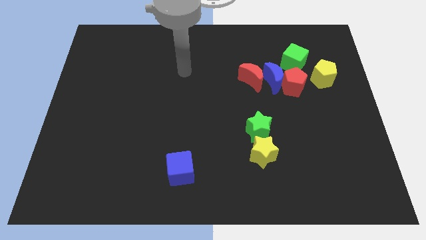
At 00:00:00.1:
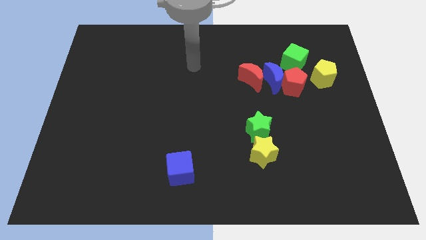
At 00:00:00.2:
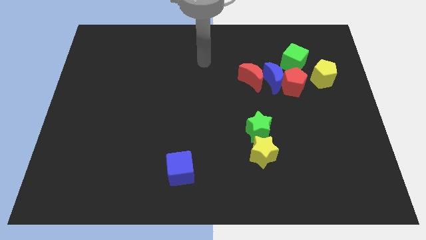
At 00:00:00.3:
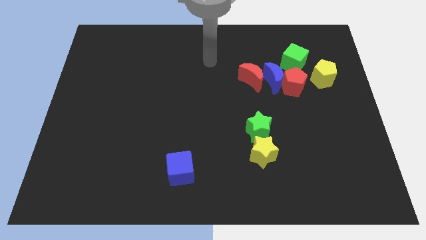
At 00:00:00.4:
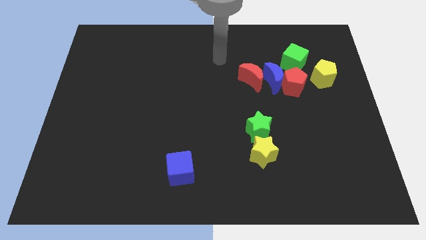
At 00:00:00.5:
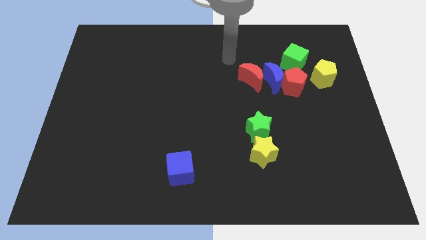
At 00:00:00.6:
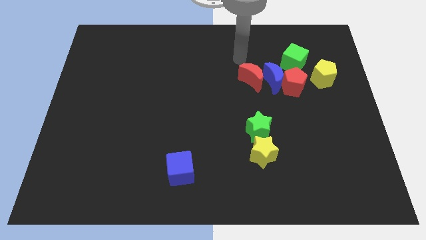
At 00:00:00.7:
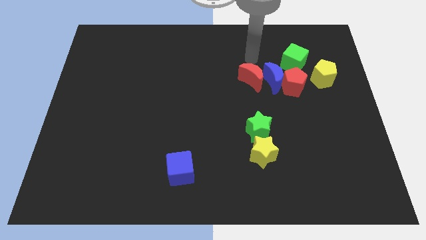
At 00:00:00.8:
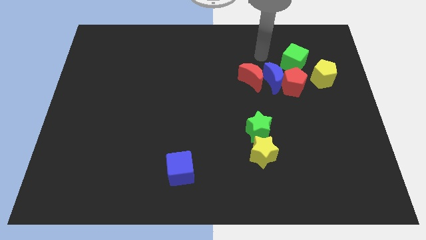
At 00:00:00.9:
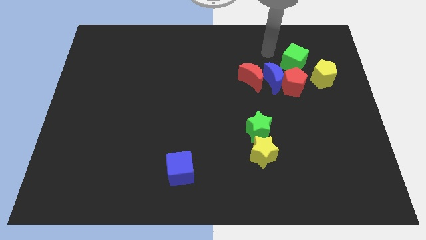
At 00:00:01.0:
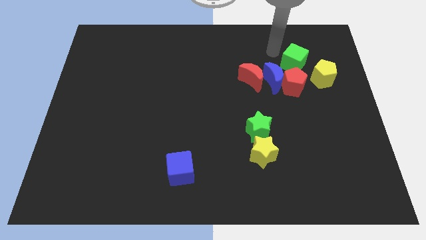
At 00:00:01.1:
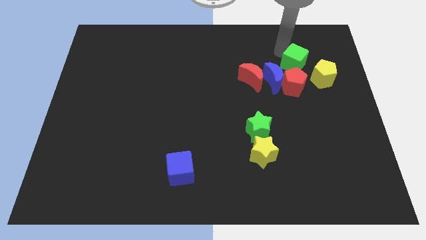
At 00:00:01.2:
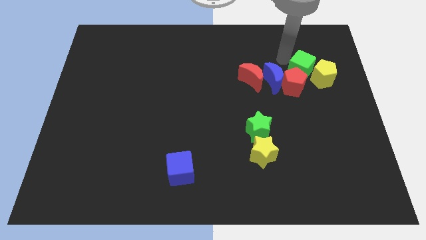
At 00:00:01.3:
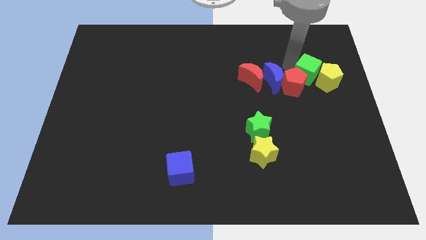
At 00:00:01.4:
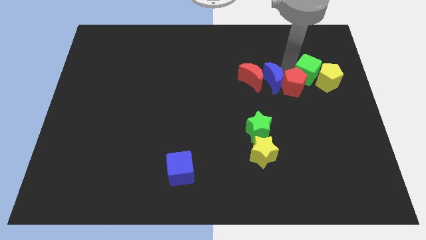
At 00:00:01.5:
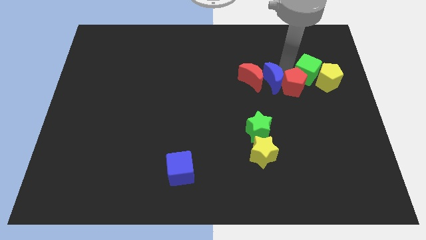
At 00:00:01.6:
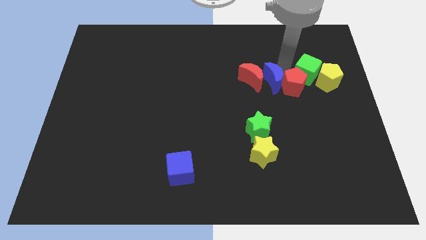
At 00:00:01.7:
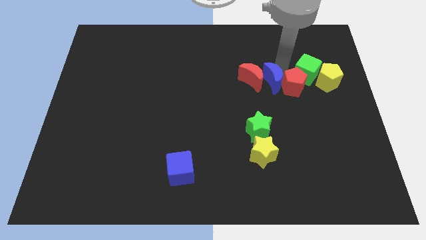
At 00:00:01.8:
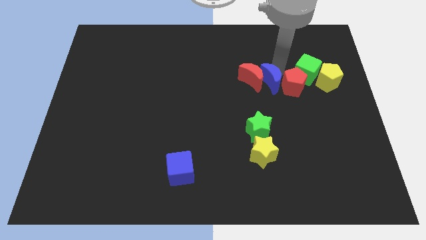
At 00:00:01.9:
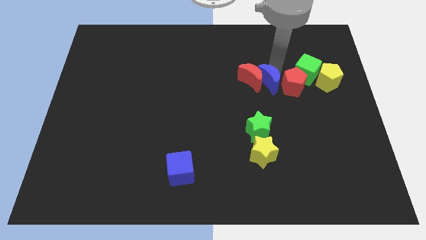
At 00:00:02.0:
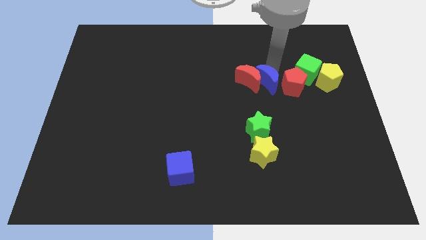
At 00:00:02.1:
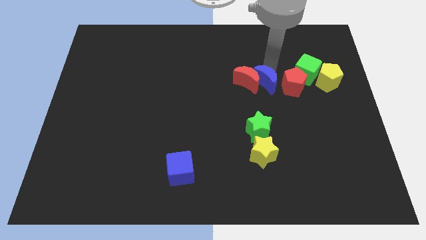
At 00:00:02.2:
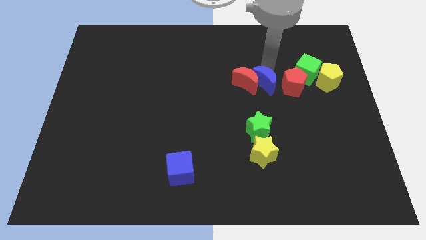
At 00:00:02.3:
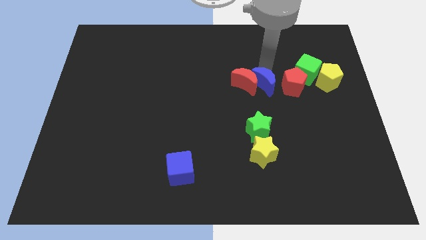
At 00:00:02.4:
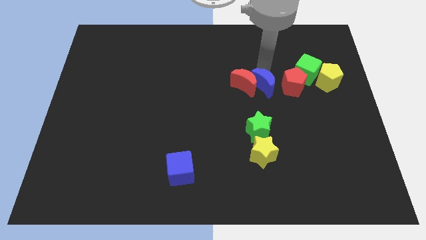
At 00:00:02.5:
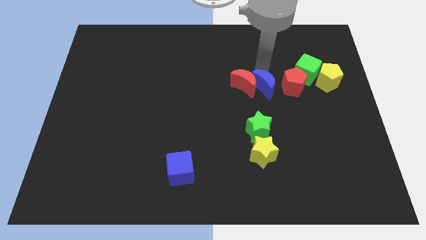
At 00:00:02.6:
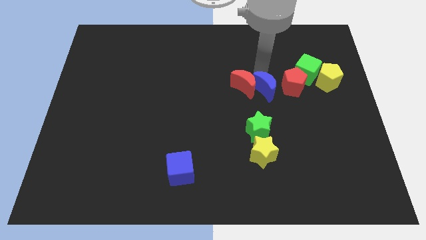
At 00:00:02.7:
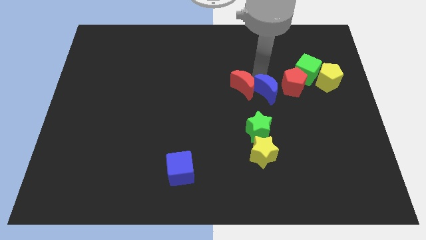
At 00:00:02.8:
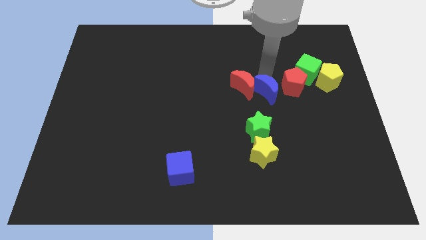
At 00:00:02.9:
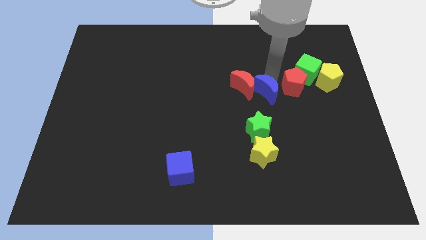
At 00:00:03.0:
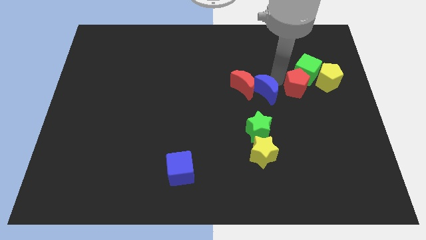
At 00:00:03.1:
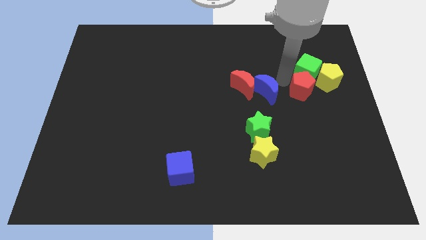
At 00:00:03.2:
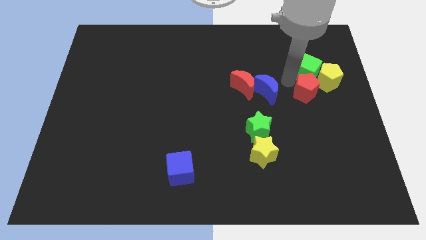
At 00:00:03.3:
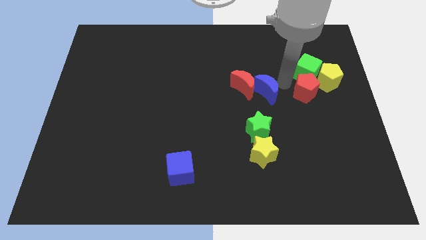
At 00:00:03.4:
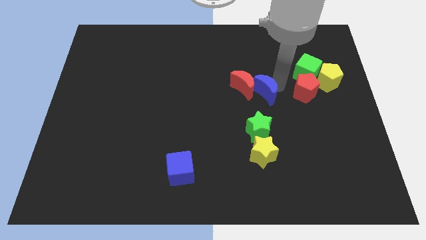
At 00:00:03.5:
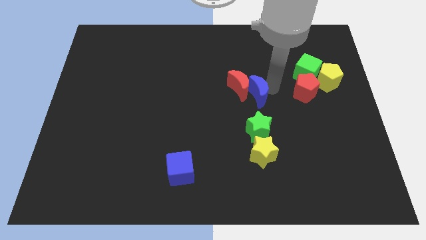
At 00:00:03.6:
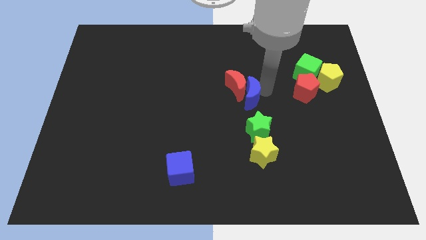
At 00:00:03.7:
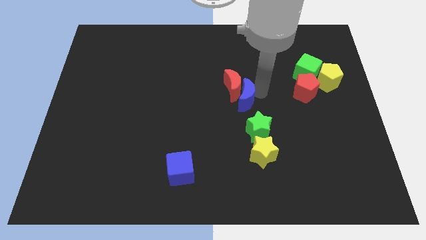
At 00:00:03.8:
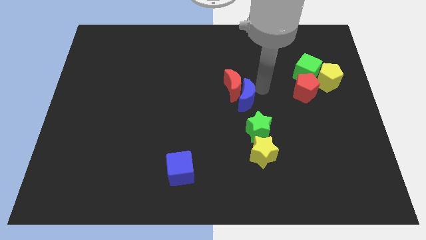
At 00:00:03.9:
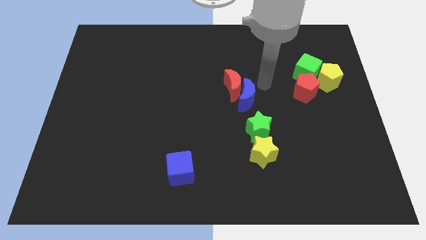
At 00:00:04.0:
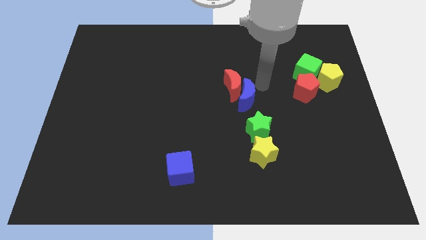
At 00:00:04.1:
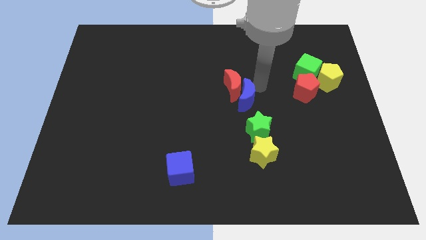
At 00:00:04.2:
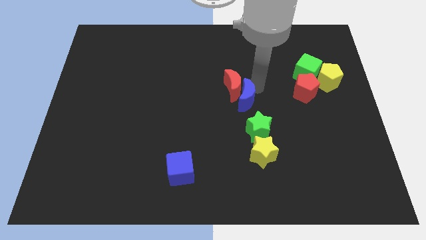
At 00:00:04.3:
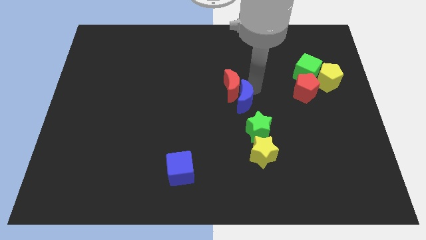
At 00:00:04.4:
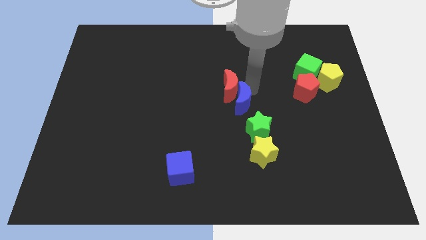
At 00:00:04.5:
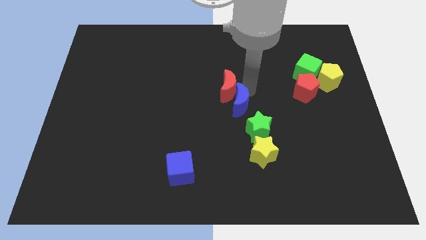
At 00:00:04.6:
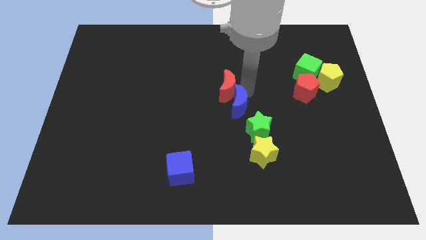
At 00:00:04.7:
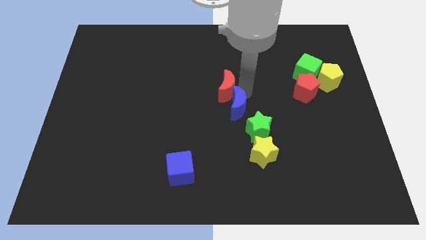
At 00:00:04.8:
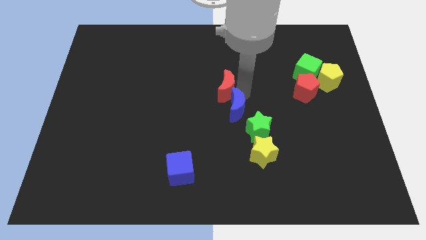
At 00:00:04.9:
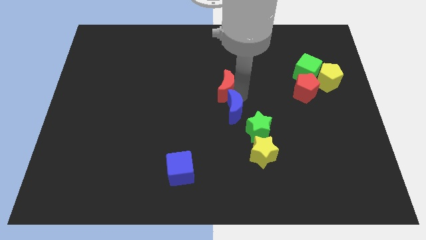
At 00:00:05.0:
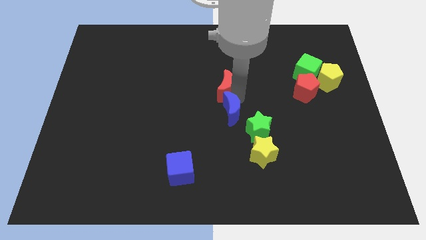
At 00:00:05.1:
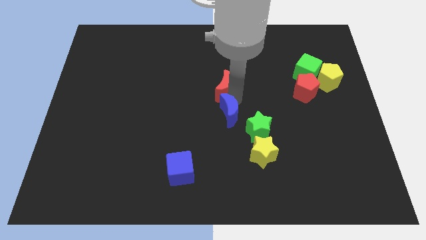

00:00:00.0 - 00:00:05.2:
push the blue moon just left of the green star

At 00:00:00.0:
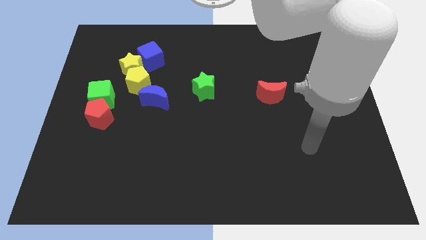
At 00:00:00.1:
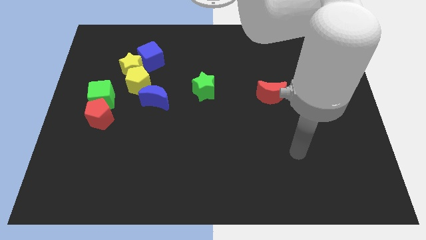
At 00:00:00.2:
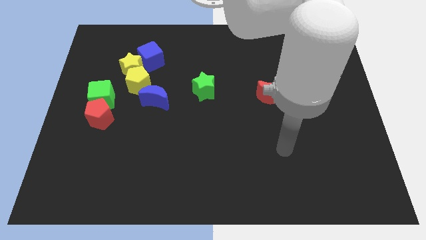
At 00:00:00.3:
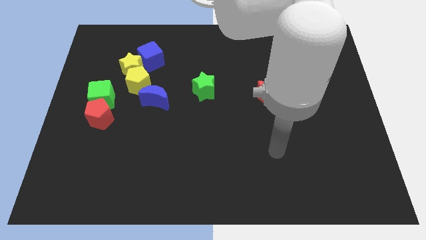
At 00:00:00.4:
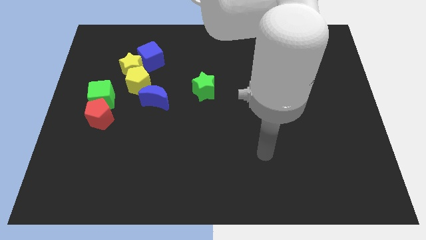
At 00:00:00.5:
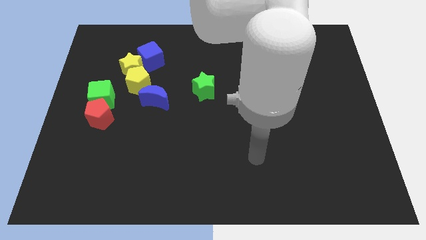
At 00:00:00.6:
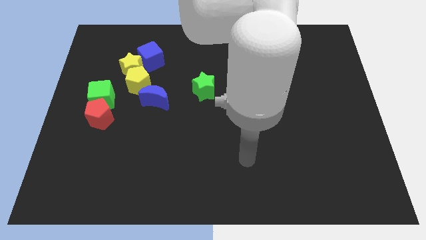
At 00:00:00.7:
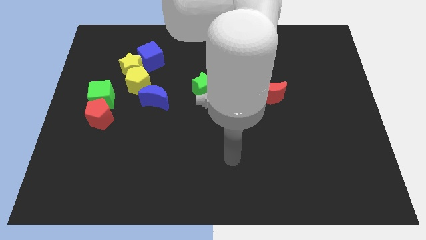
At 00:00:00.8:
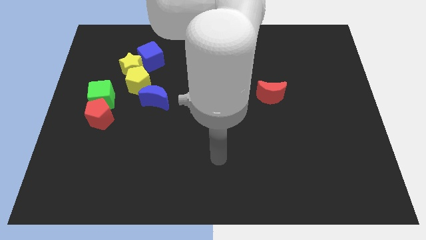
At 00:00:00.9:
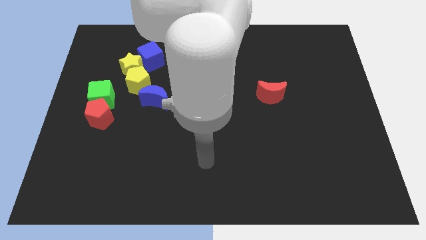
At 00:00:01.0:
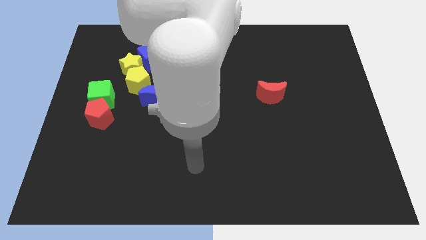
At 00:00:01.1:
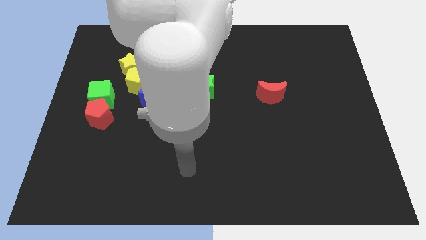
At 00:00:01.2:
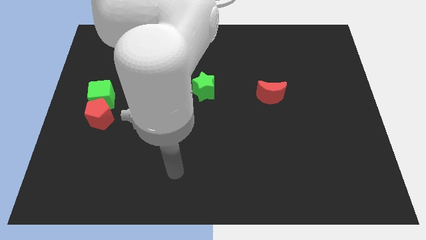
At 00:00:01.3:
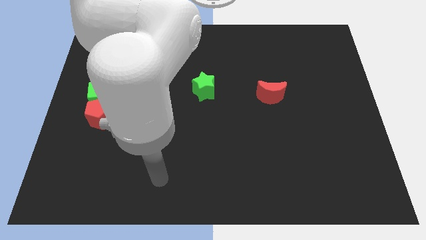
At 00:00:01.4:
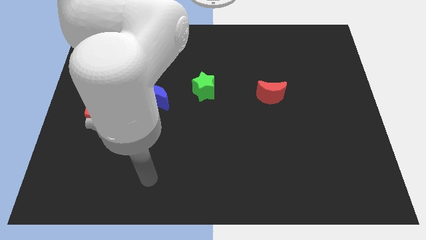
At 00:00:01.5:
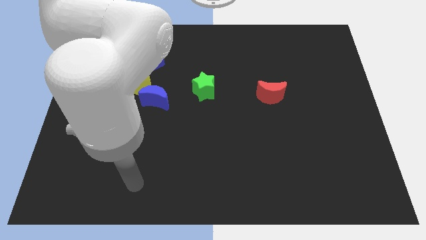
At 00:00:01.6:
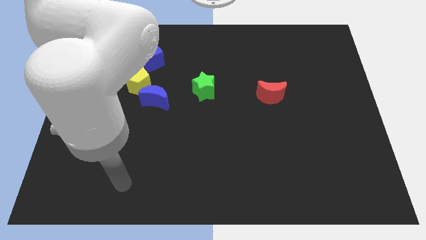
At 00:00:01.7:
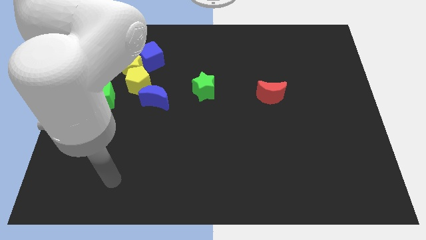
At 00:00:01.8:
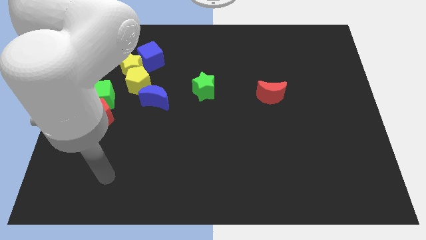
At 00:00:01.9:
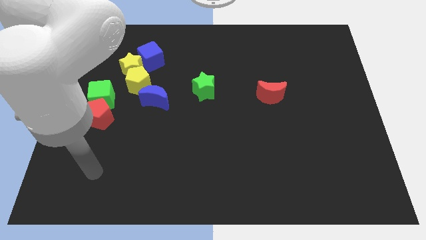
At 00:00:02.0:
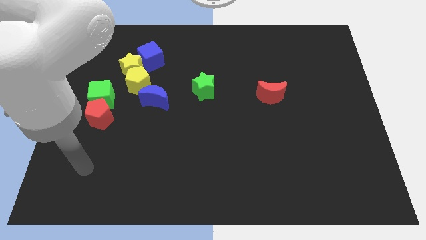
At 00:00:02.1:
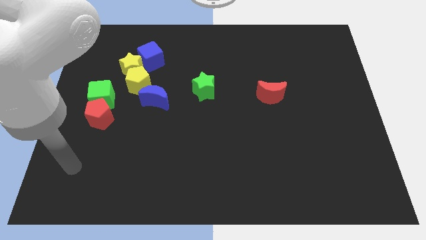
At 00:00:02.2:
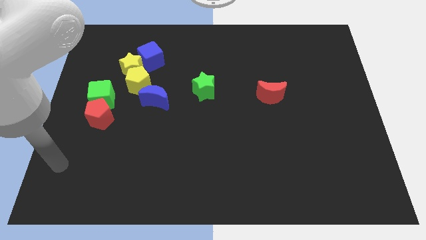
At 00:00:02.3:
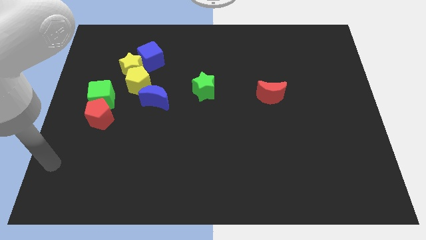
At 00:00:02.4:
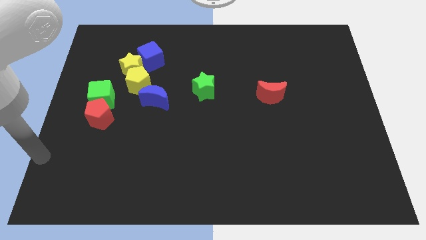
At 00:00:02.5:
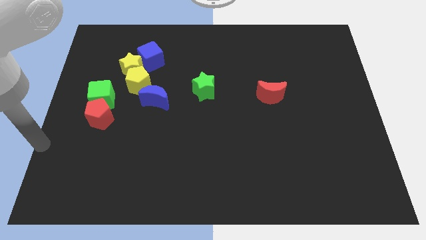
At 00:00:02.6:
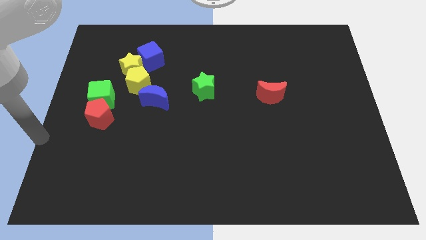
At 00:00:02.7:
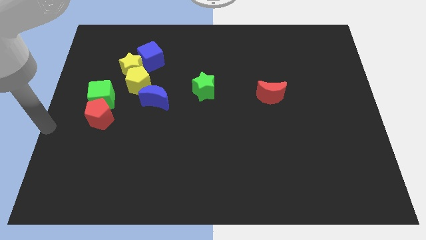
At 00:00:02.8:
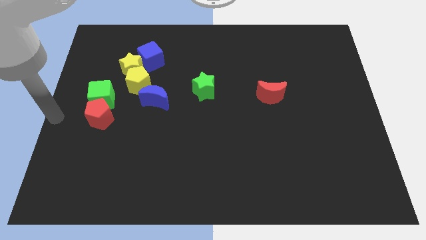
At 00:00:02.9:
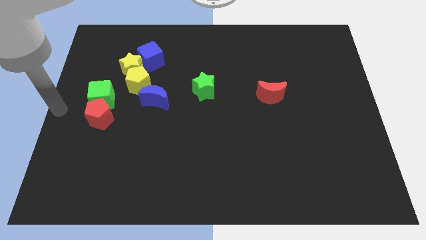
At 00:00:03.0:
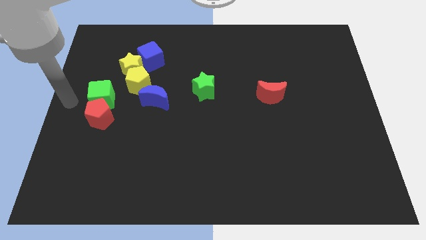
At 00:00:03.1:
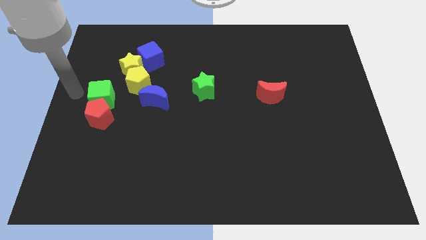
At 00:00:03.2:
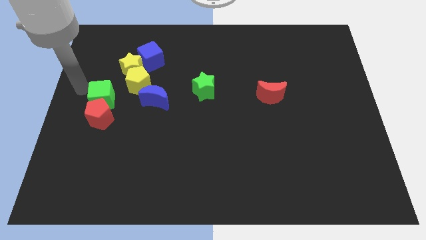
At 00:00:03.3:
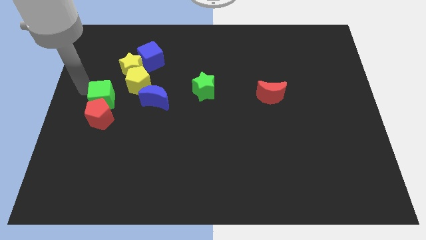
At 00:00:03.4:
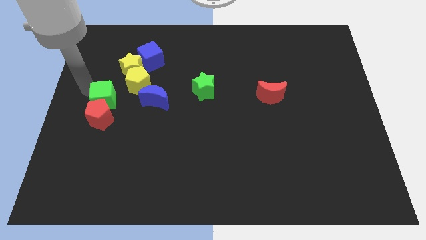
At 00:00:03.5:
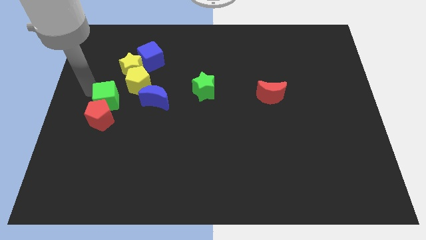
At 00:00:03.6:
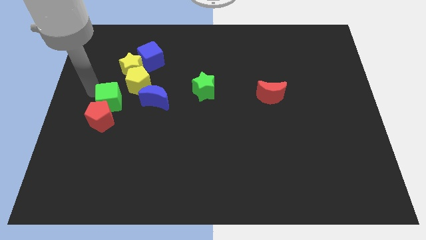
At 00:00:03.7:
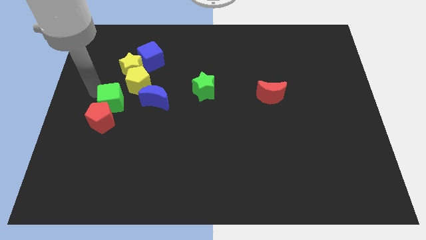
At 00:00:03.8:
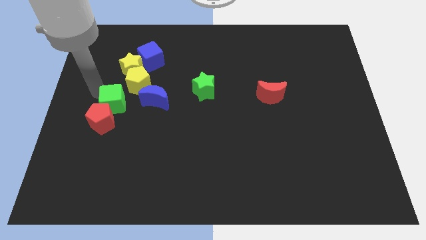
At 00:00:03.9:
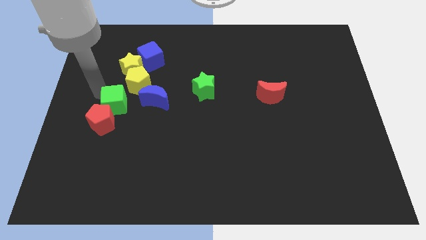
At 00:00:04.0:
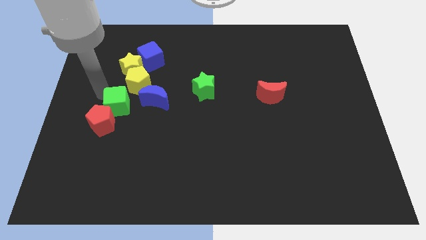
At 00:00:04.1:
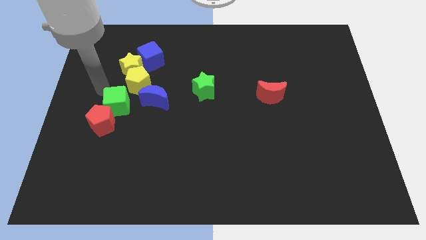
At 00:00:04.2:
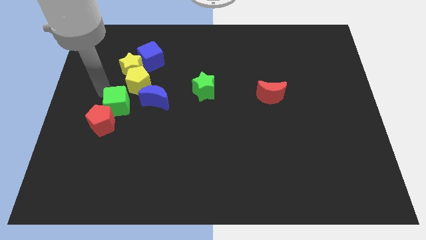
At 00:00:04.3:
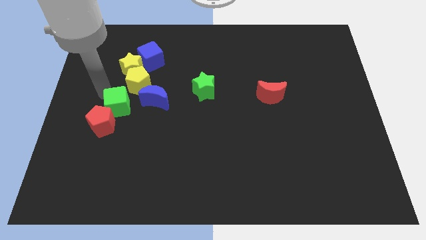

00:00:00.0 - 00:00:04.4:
move the green cube to the bottom left of the blue moon
